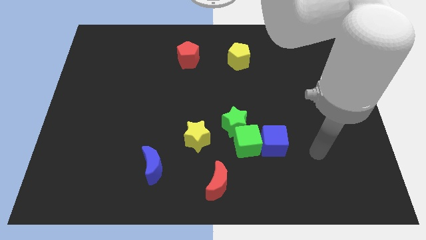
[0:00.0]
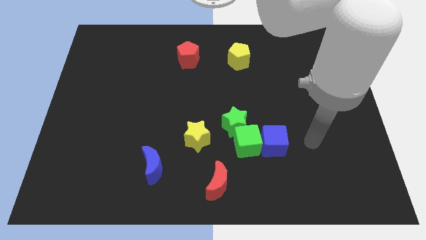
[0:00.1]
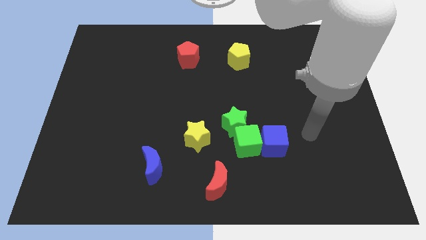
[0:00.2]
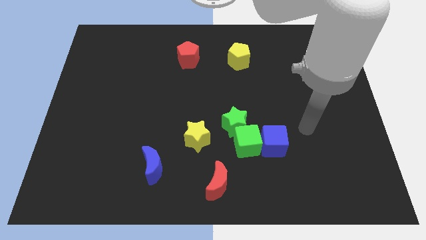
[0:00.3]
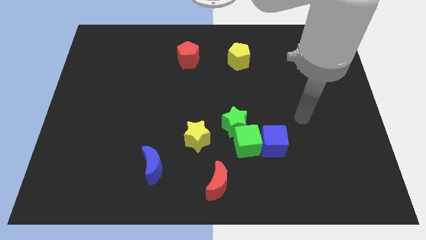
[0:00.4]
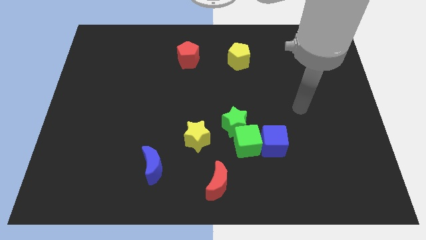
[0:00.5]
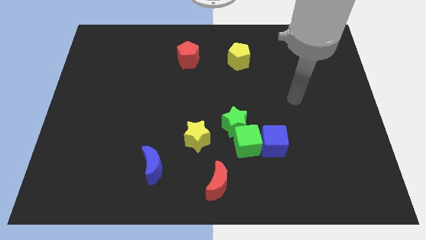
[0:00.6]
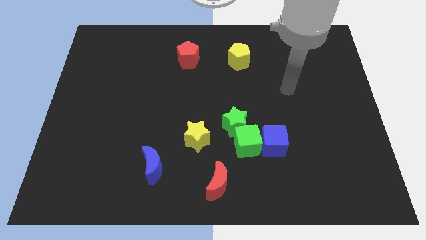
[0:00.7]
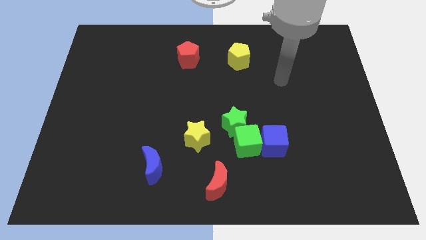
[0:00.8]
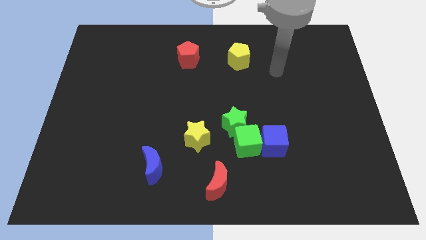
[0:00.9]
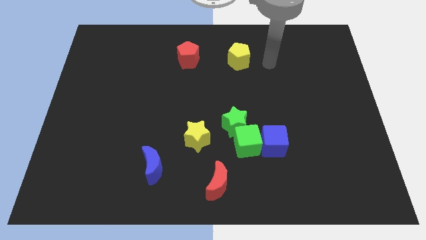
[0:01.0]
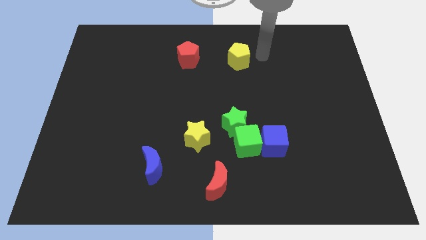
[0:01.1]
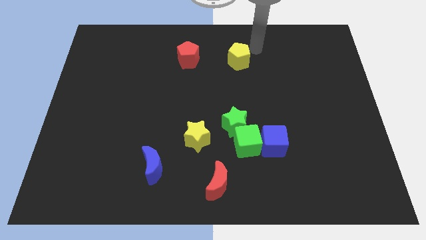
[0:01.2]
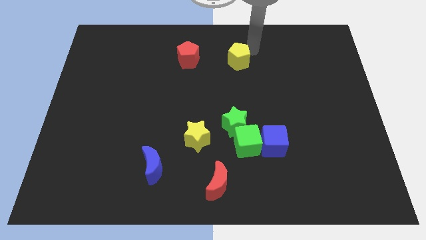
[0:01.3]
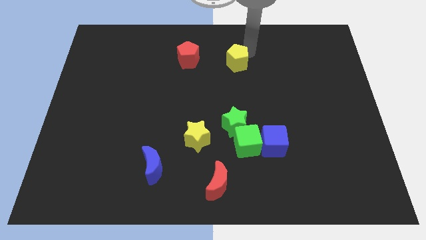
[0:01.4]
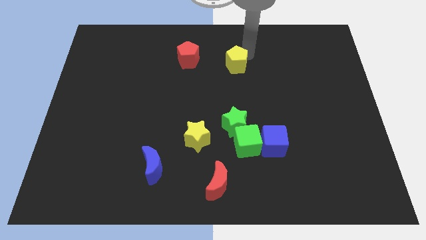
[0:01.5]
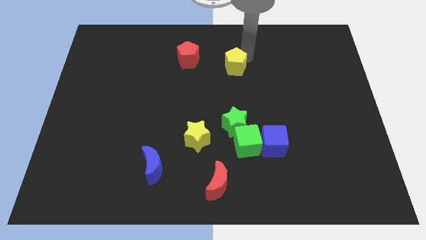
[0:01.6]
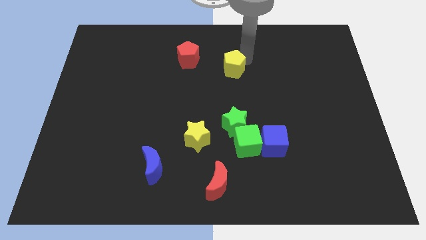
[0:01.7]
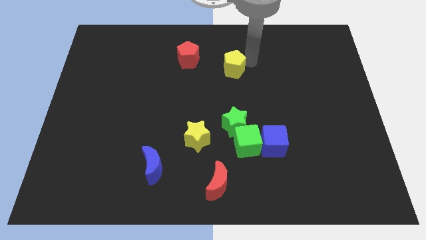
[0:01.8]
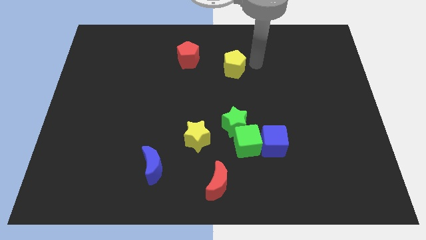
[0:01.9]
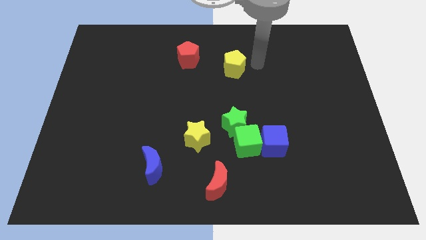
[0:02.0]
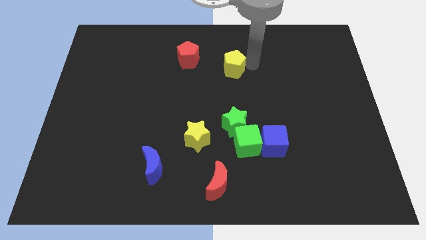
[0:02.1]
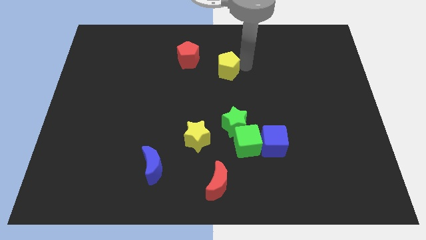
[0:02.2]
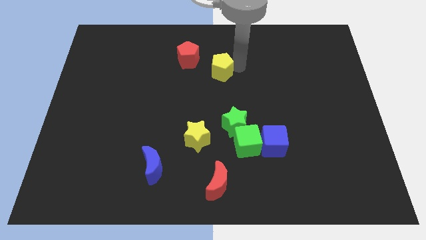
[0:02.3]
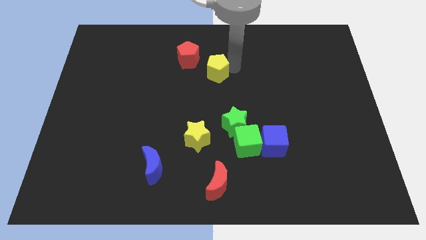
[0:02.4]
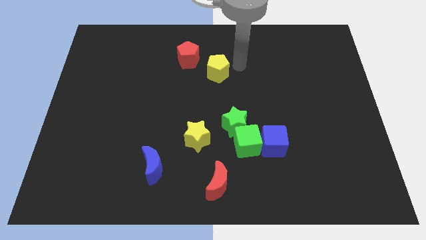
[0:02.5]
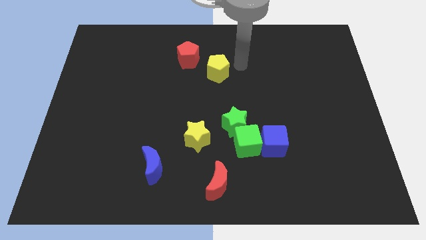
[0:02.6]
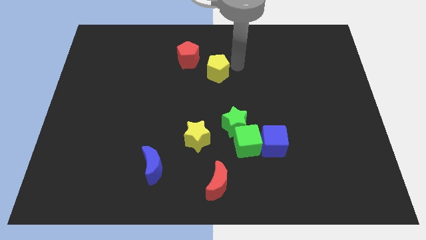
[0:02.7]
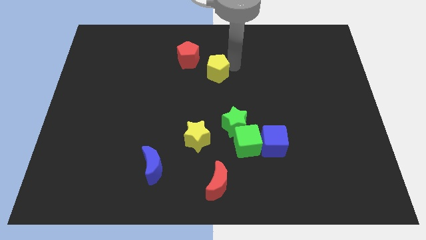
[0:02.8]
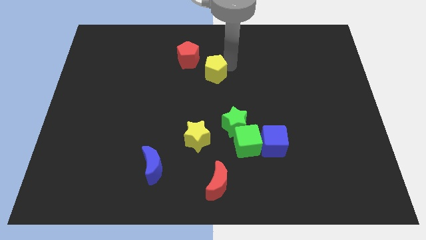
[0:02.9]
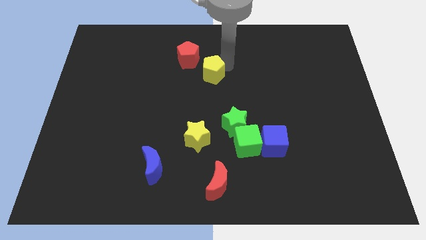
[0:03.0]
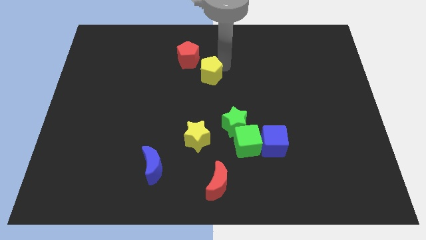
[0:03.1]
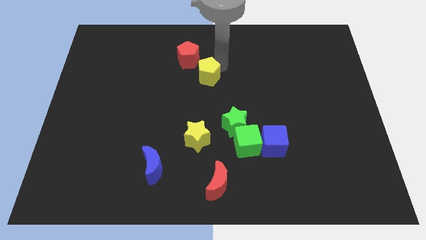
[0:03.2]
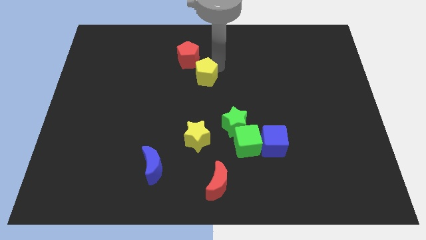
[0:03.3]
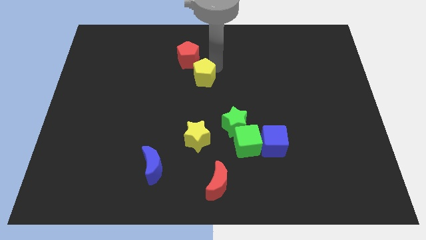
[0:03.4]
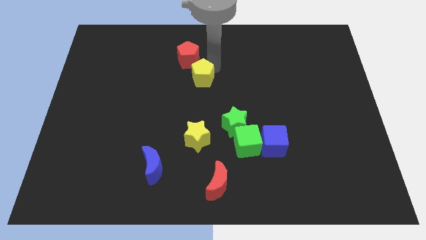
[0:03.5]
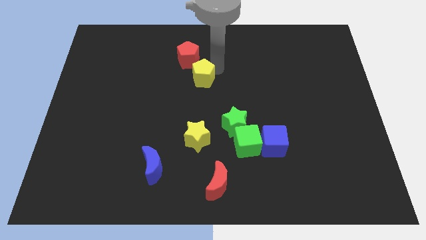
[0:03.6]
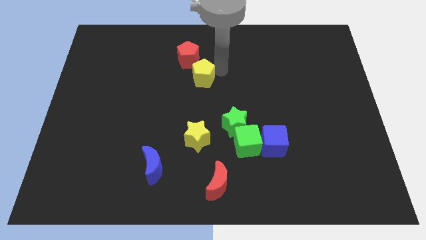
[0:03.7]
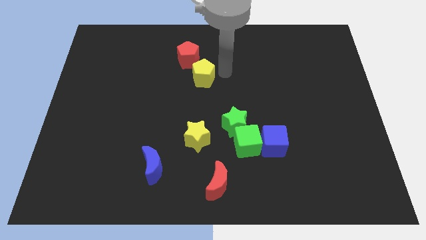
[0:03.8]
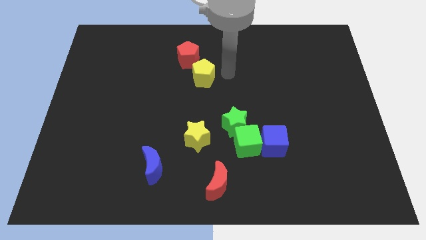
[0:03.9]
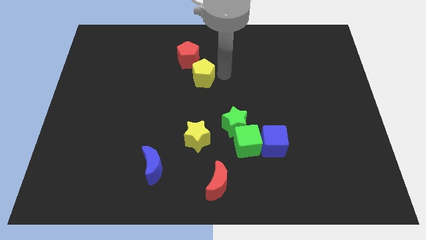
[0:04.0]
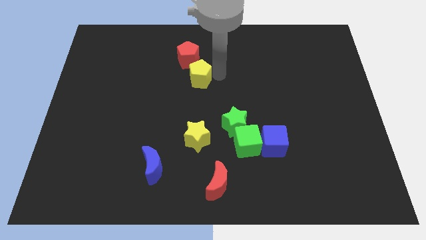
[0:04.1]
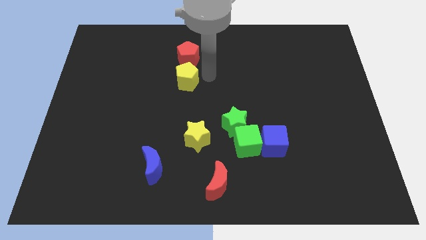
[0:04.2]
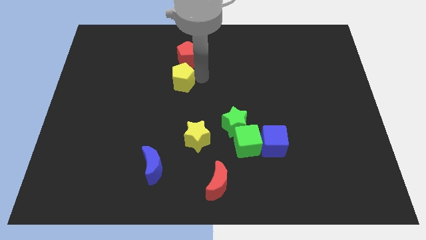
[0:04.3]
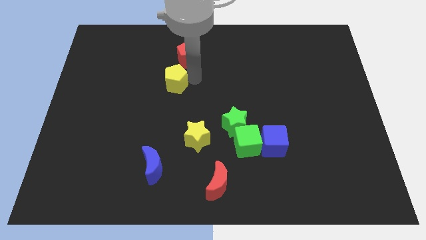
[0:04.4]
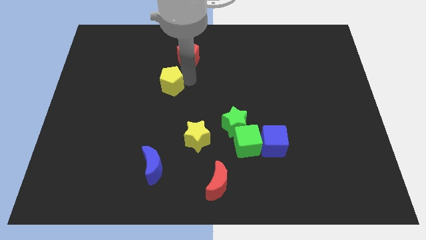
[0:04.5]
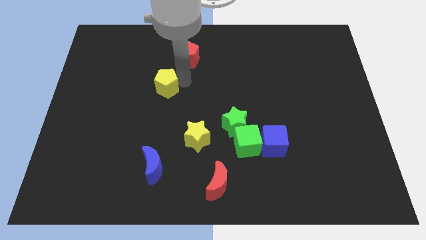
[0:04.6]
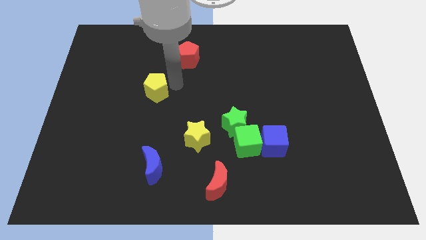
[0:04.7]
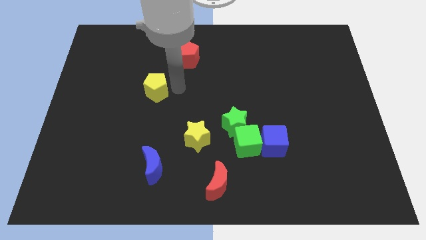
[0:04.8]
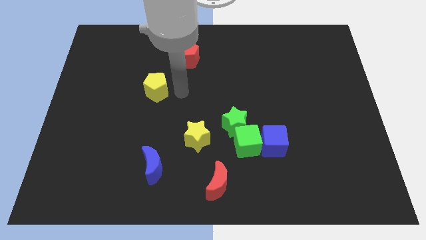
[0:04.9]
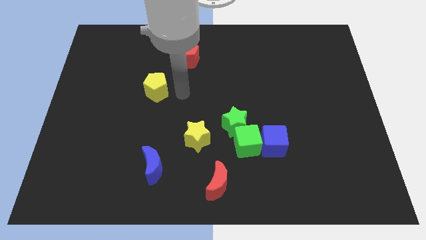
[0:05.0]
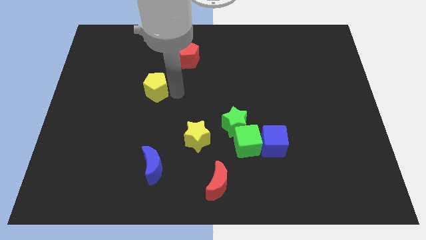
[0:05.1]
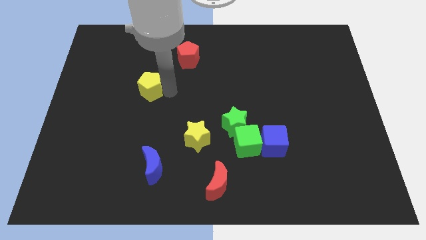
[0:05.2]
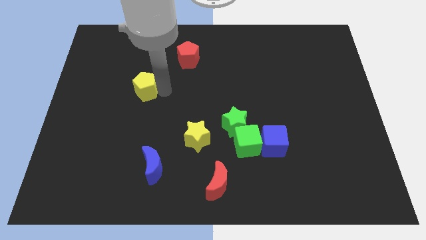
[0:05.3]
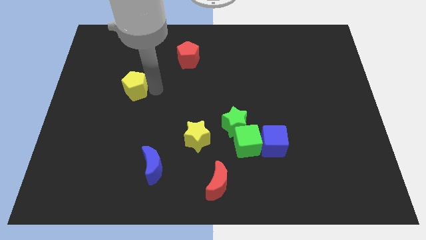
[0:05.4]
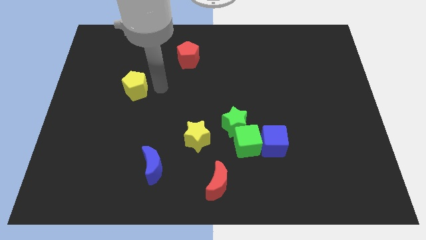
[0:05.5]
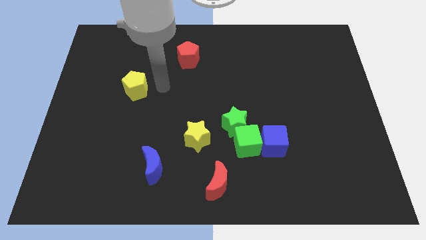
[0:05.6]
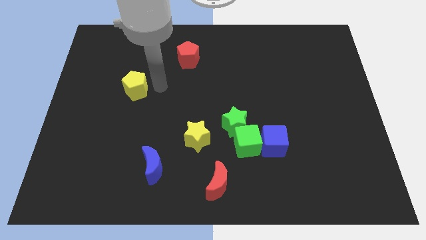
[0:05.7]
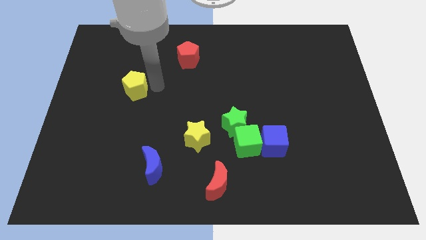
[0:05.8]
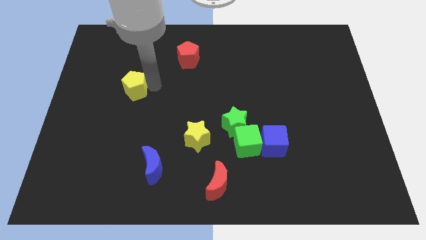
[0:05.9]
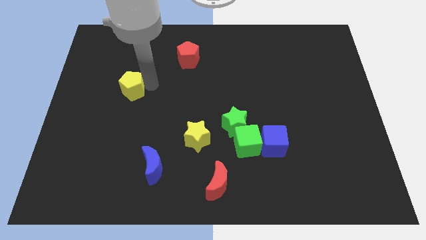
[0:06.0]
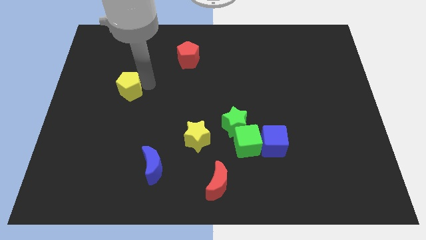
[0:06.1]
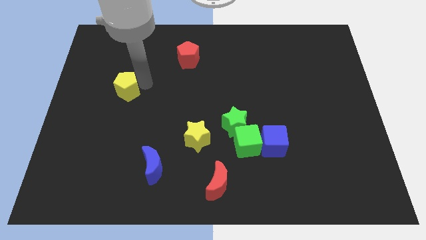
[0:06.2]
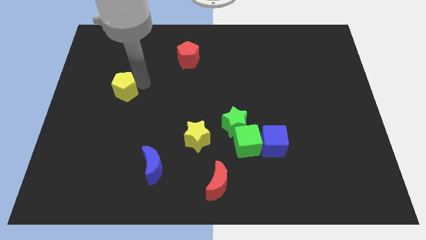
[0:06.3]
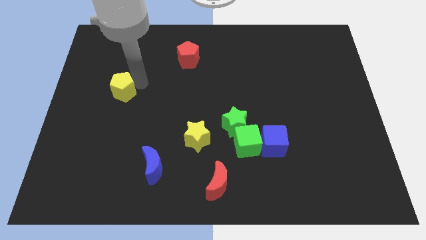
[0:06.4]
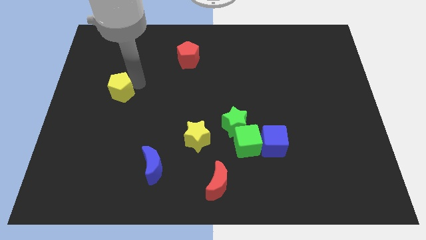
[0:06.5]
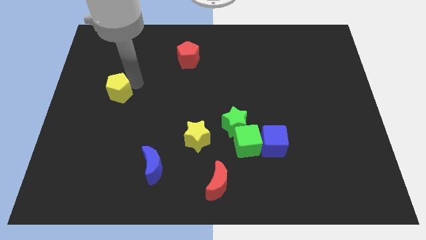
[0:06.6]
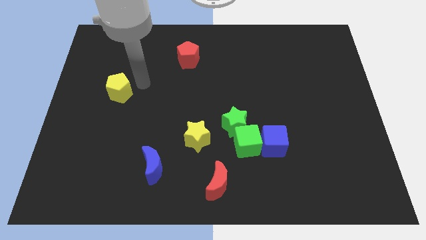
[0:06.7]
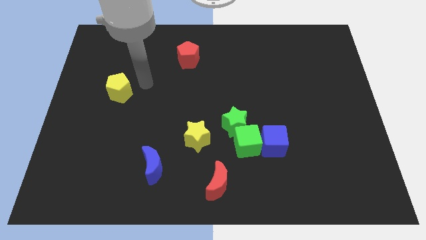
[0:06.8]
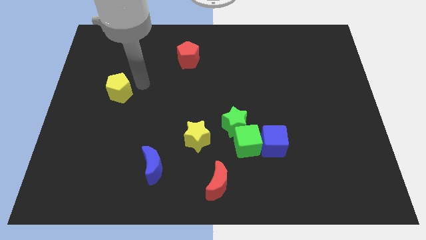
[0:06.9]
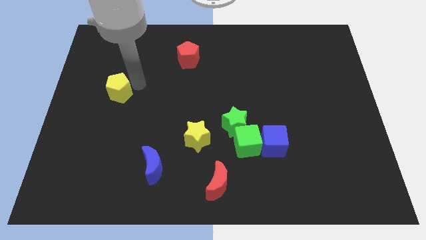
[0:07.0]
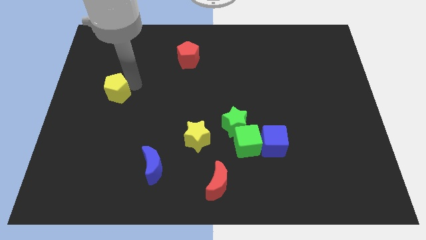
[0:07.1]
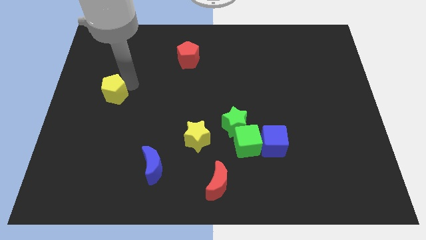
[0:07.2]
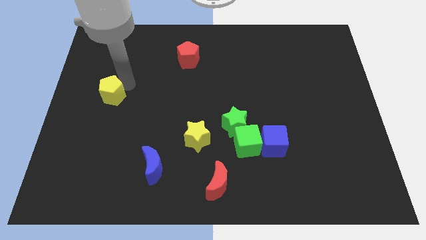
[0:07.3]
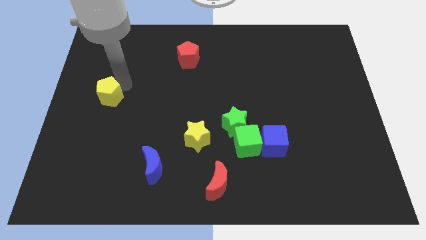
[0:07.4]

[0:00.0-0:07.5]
slide the yellow pentagon to the left side of the board

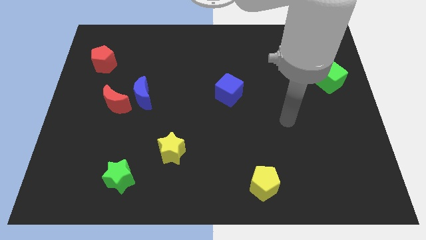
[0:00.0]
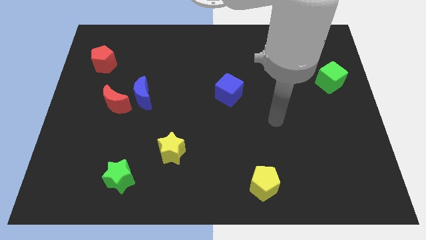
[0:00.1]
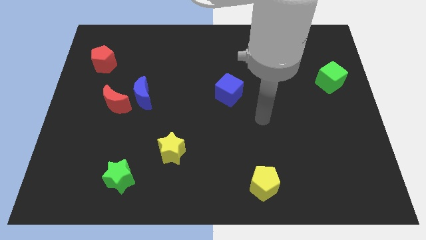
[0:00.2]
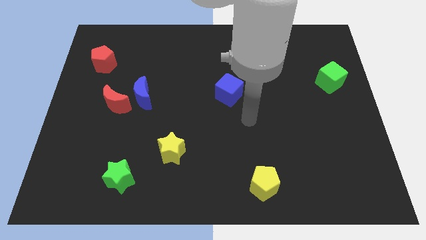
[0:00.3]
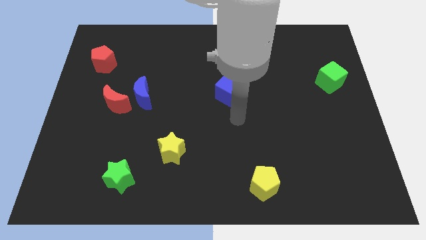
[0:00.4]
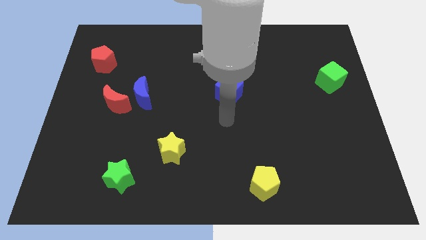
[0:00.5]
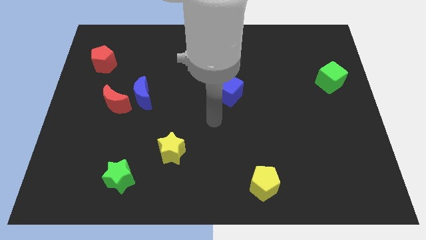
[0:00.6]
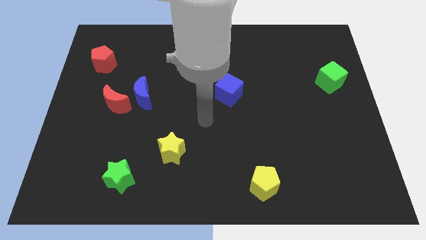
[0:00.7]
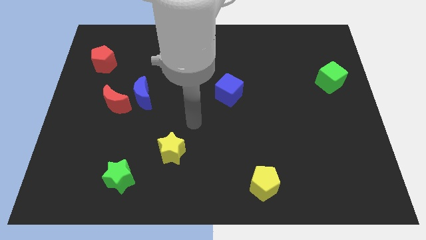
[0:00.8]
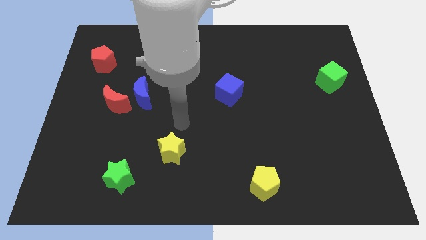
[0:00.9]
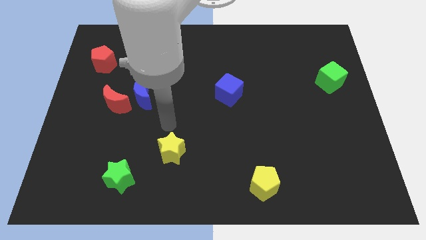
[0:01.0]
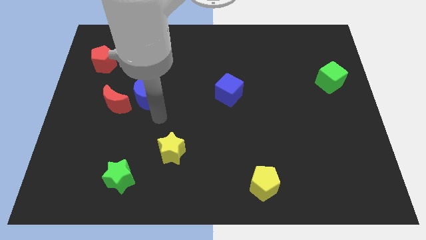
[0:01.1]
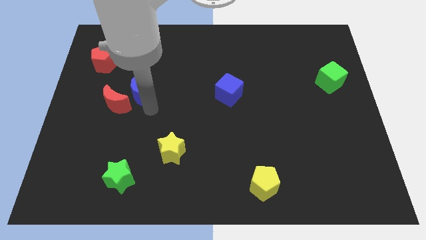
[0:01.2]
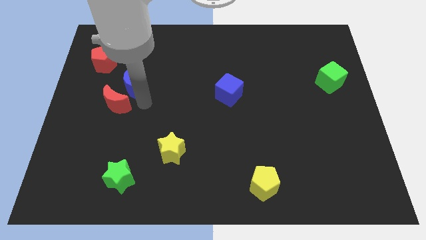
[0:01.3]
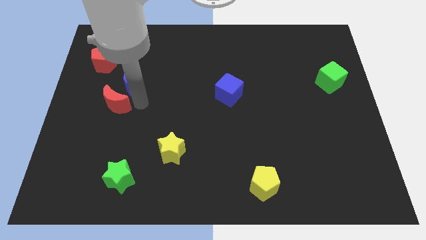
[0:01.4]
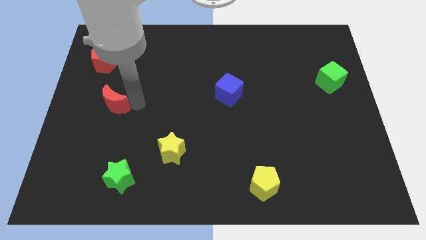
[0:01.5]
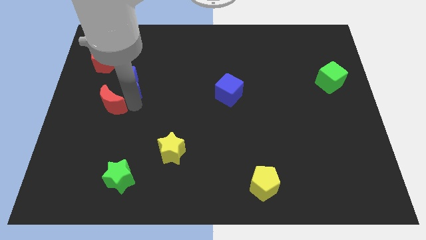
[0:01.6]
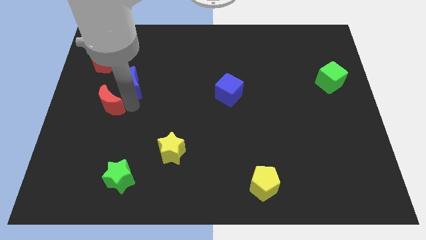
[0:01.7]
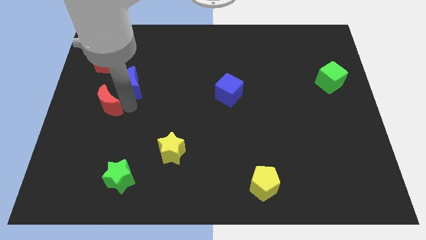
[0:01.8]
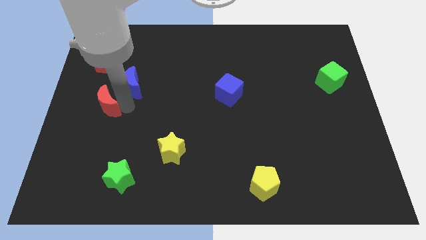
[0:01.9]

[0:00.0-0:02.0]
push the red moon to the left side of the board
